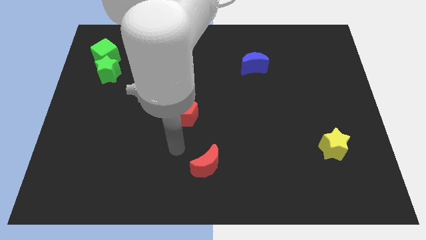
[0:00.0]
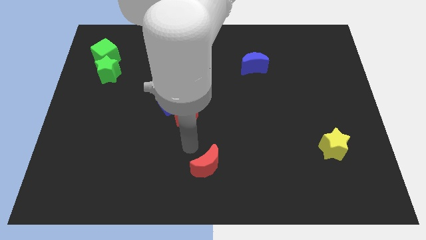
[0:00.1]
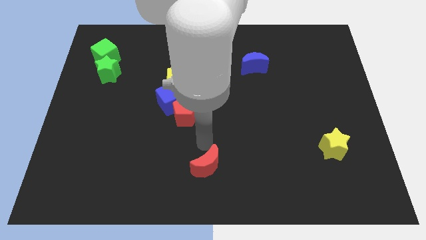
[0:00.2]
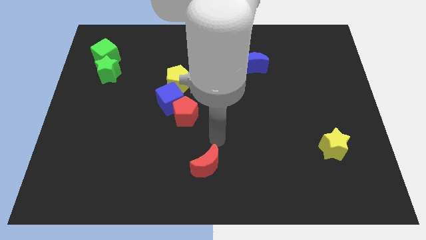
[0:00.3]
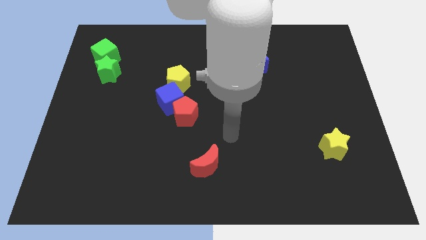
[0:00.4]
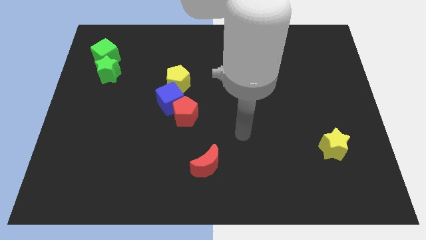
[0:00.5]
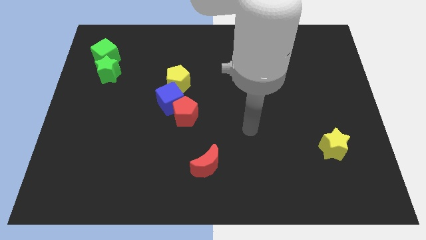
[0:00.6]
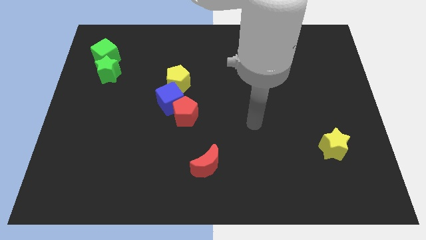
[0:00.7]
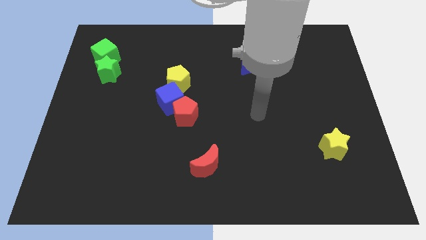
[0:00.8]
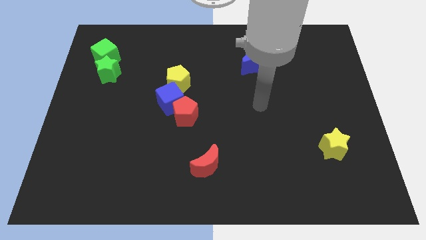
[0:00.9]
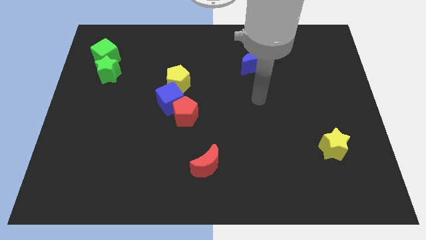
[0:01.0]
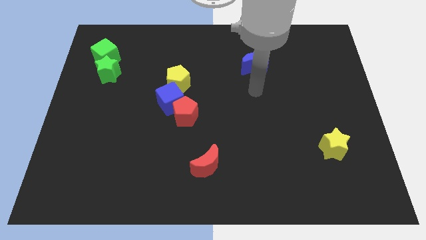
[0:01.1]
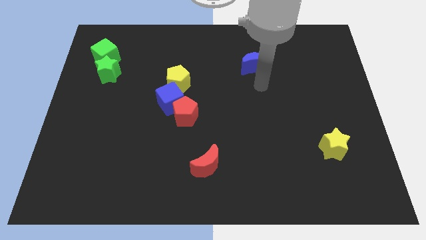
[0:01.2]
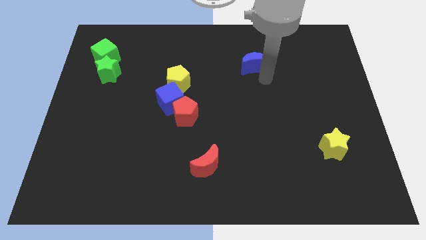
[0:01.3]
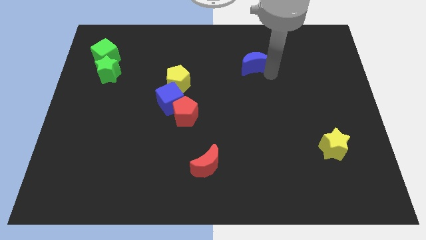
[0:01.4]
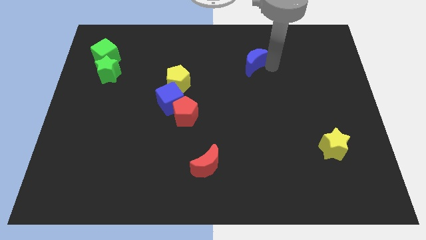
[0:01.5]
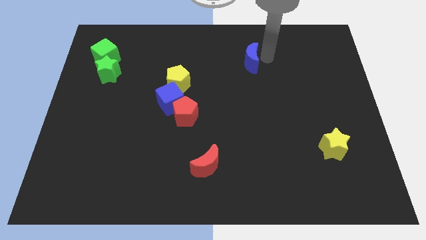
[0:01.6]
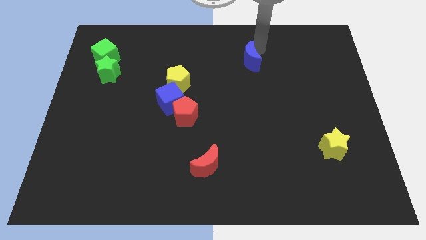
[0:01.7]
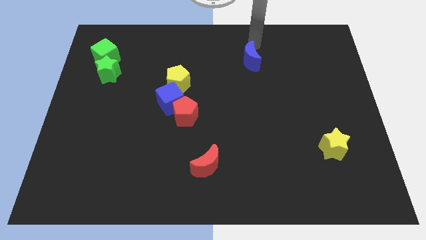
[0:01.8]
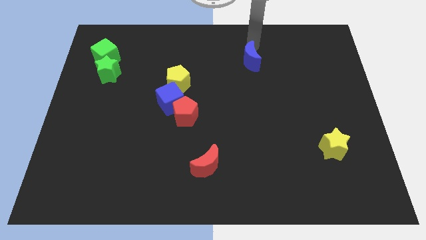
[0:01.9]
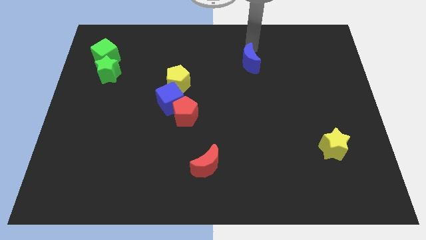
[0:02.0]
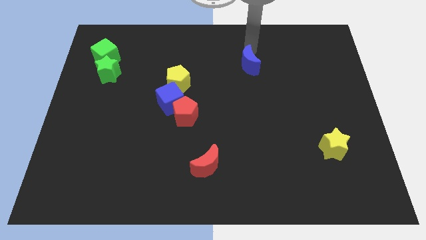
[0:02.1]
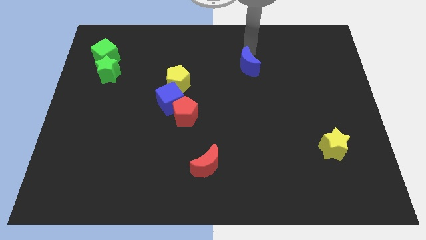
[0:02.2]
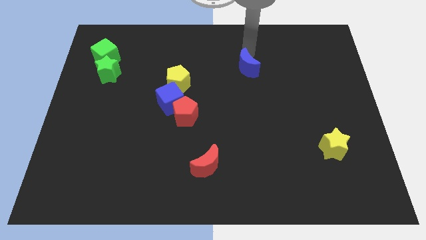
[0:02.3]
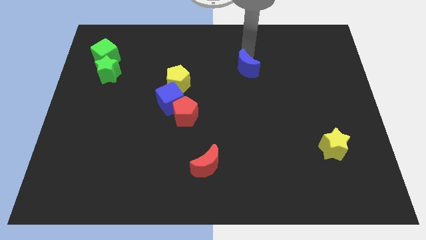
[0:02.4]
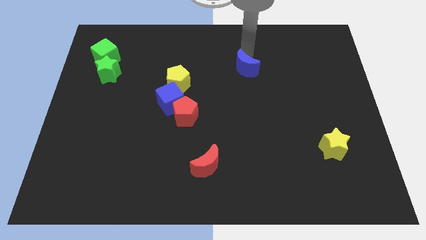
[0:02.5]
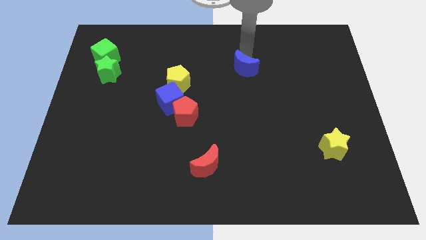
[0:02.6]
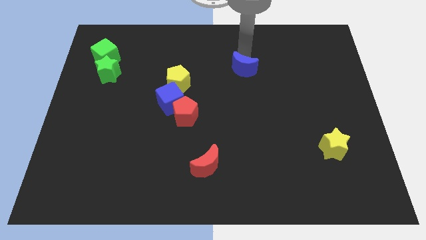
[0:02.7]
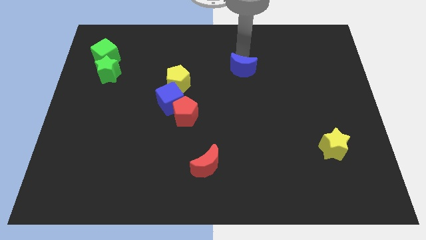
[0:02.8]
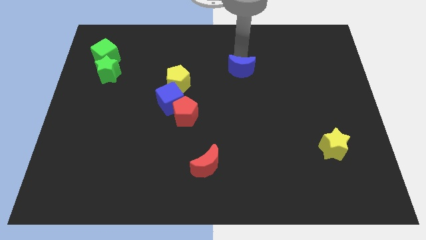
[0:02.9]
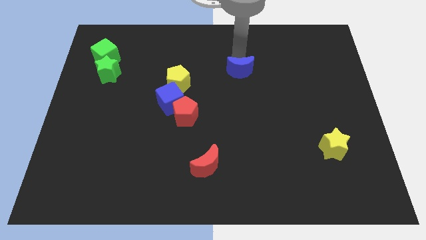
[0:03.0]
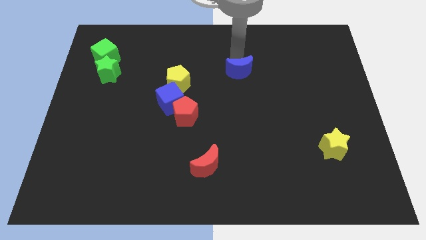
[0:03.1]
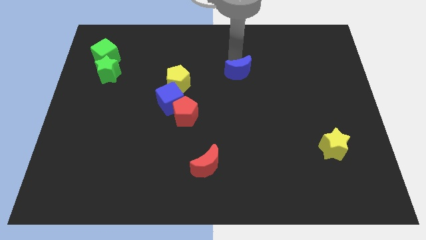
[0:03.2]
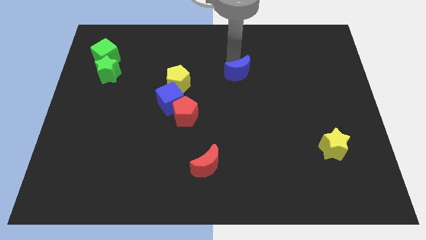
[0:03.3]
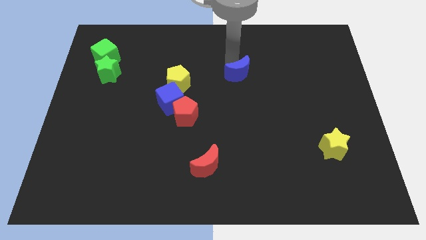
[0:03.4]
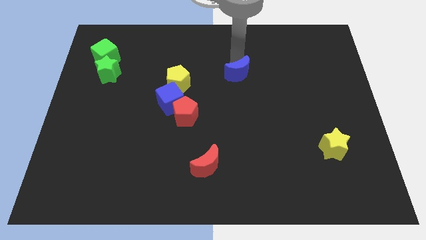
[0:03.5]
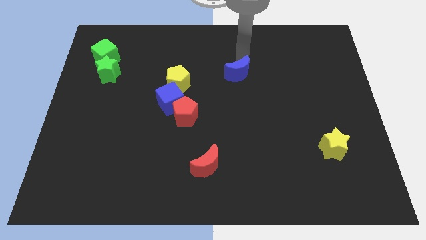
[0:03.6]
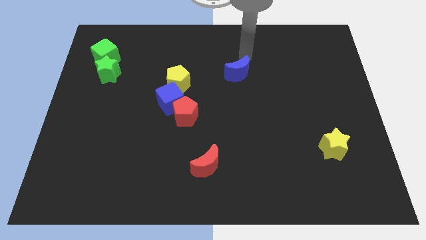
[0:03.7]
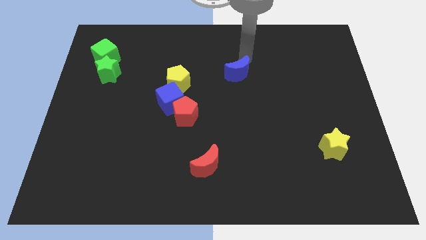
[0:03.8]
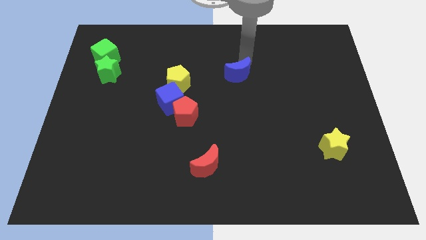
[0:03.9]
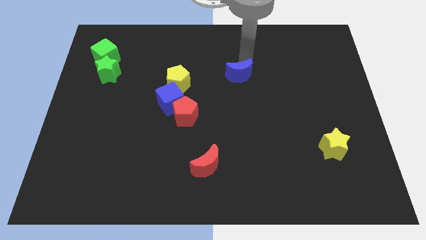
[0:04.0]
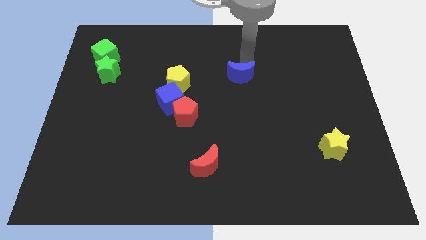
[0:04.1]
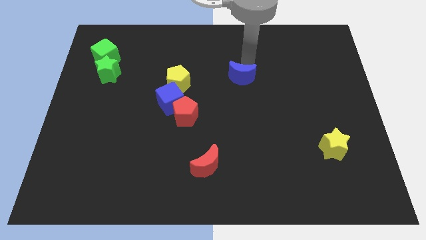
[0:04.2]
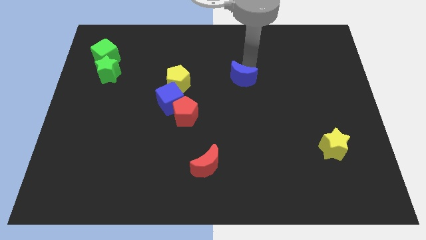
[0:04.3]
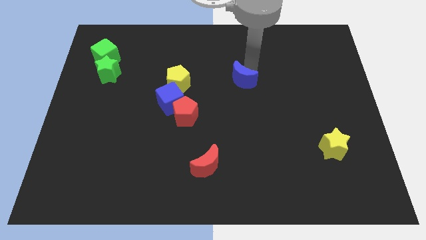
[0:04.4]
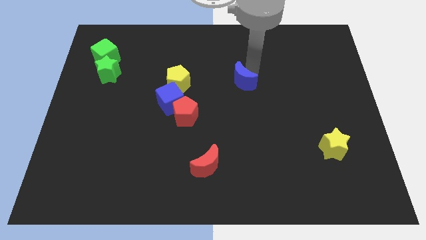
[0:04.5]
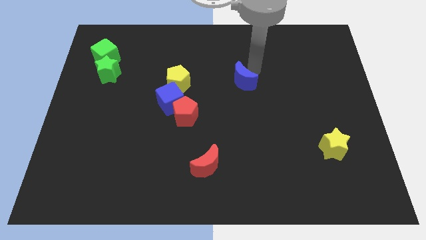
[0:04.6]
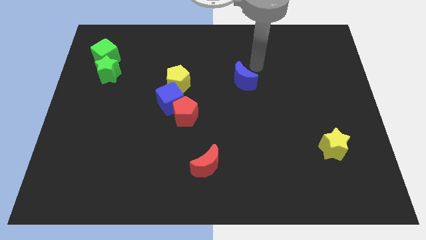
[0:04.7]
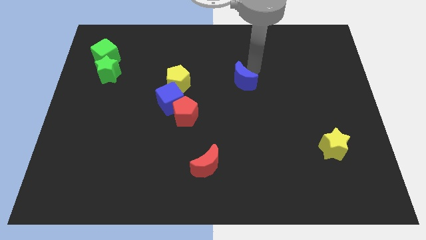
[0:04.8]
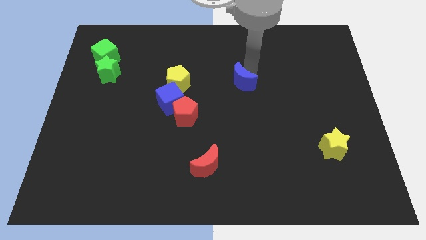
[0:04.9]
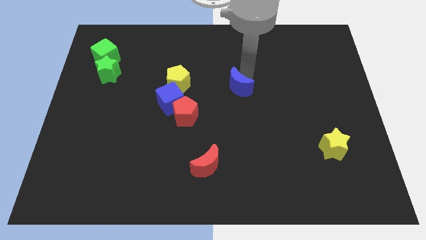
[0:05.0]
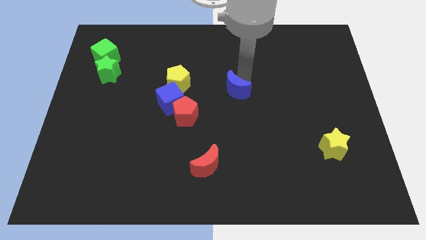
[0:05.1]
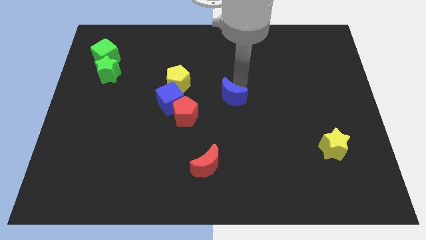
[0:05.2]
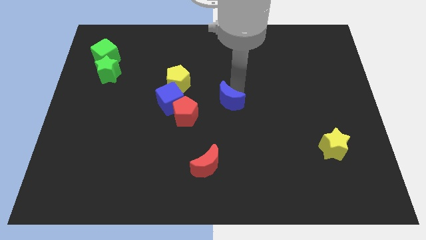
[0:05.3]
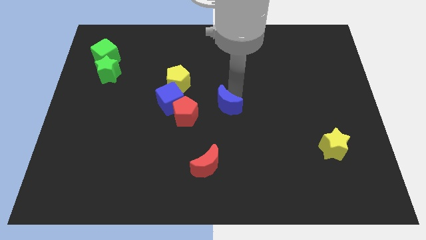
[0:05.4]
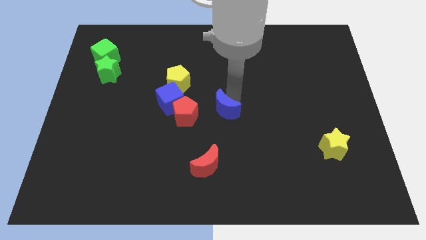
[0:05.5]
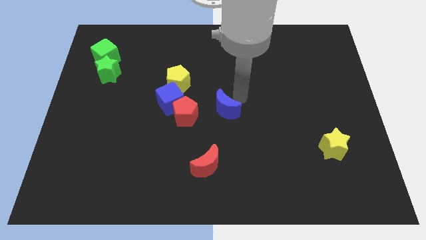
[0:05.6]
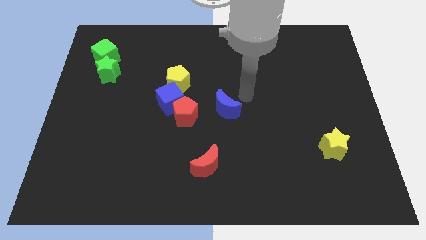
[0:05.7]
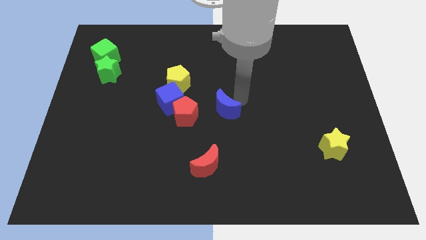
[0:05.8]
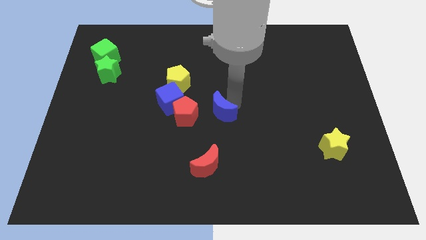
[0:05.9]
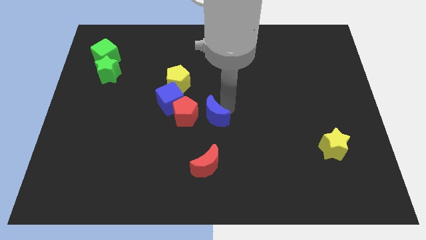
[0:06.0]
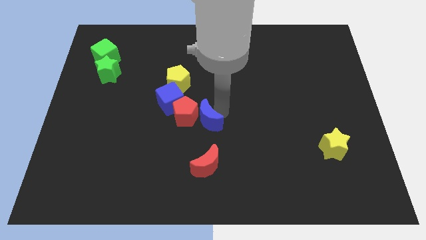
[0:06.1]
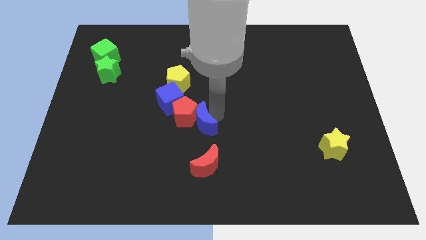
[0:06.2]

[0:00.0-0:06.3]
move the blue moon downwards and to the left

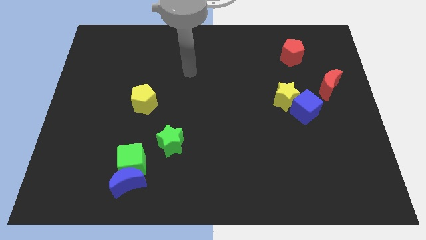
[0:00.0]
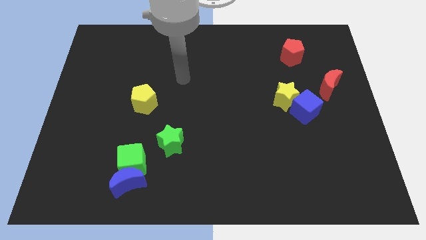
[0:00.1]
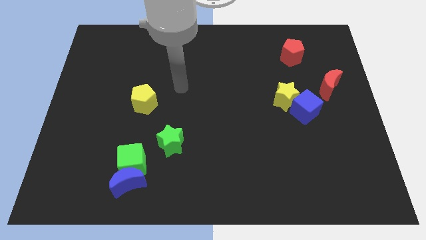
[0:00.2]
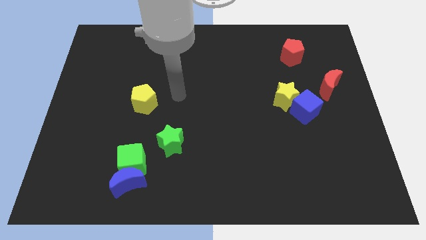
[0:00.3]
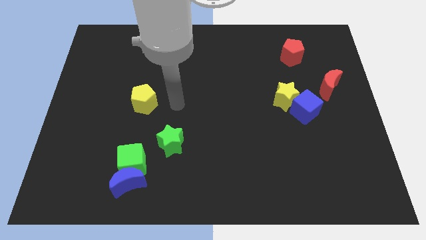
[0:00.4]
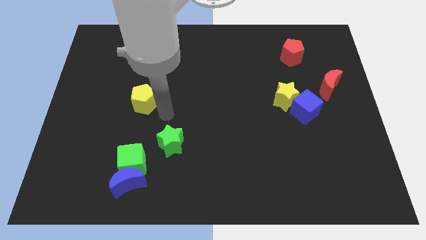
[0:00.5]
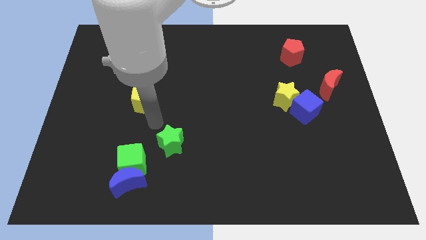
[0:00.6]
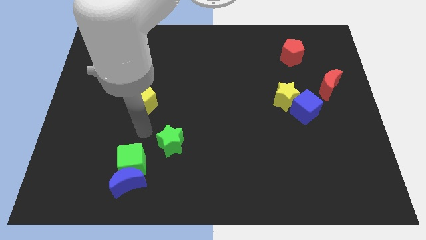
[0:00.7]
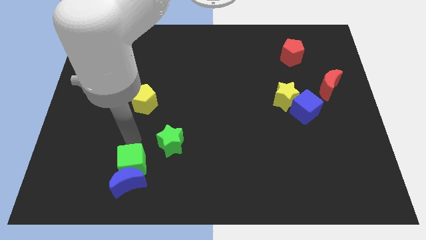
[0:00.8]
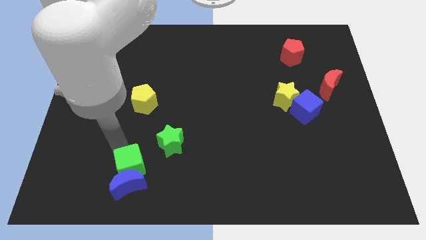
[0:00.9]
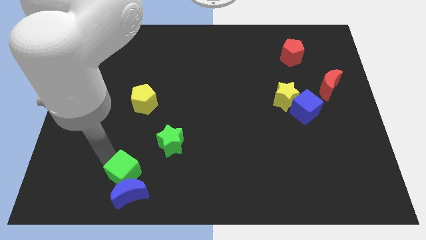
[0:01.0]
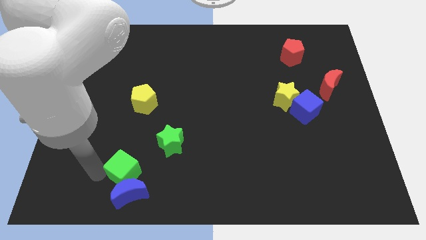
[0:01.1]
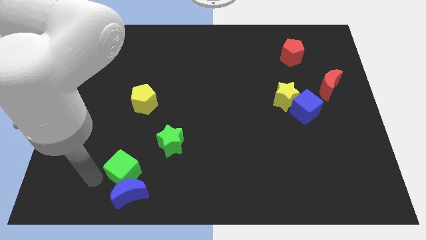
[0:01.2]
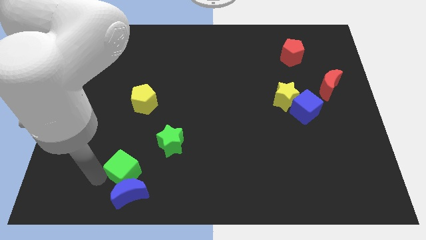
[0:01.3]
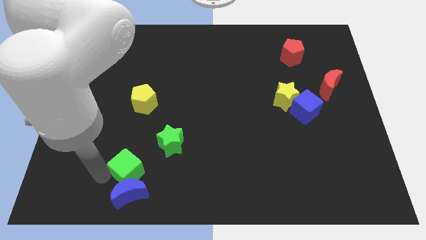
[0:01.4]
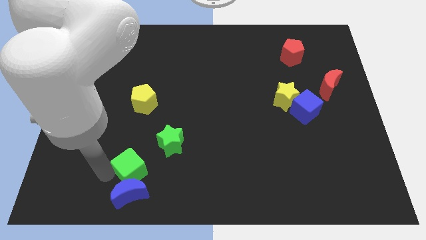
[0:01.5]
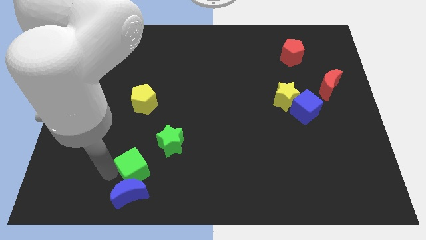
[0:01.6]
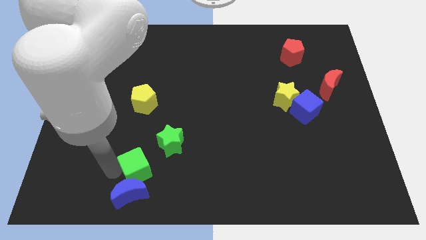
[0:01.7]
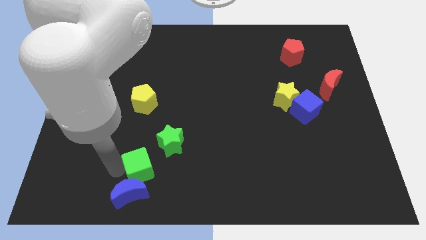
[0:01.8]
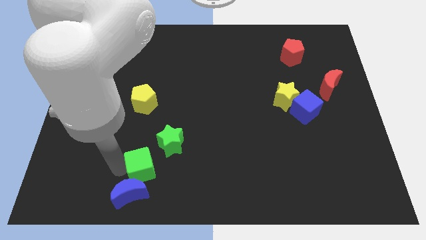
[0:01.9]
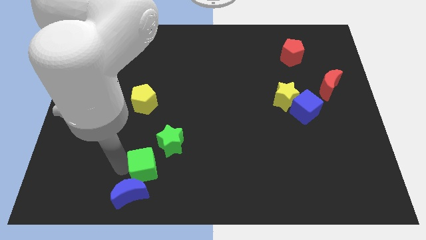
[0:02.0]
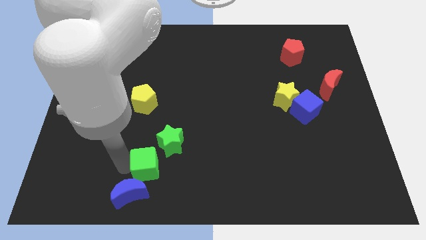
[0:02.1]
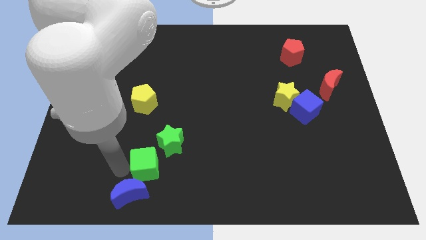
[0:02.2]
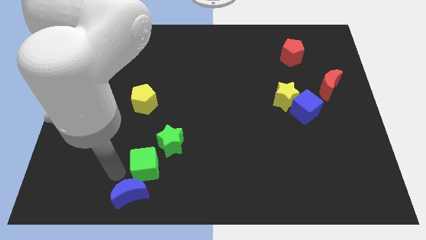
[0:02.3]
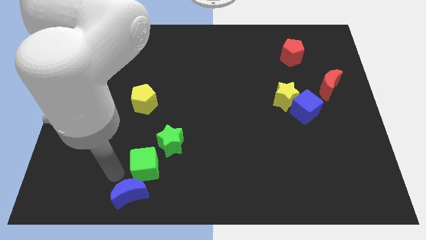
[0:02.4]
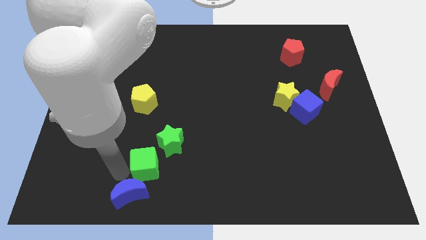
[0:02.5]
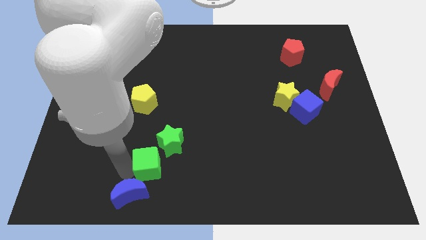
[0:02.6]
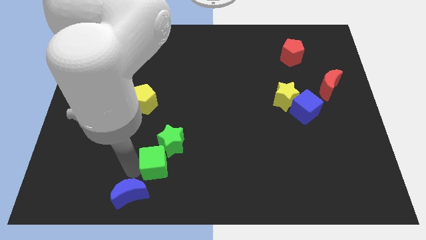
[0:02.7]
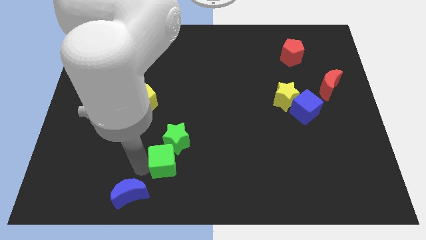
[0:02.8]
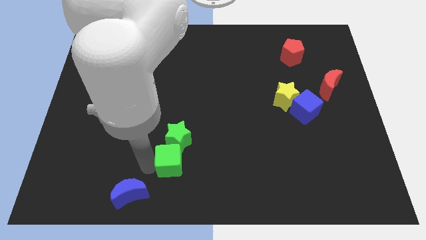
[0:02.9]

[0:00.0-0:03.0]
move the green cube to the right slightly
